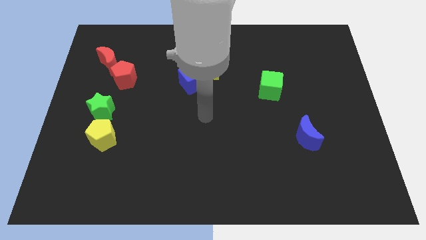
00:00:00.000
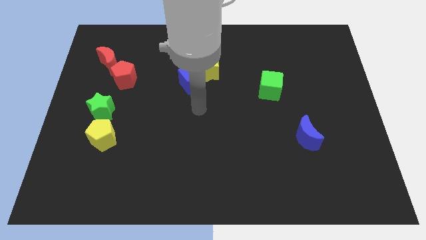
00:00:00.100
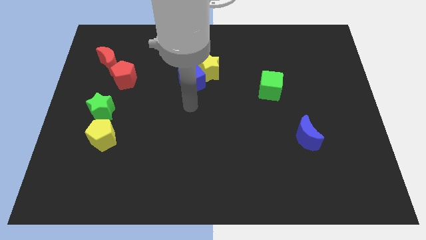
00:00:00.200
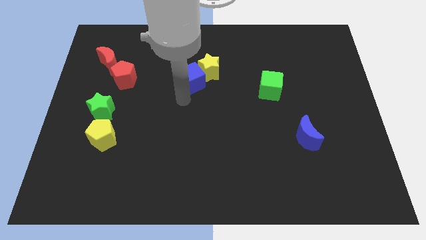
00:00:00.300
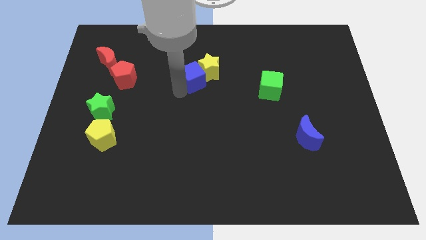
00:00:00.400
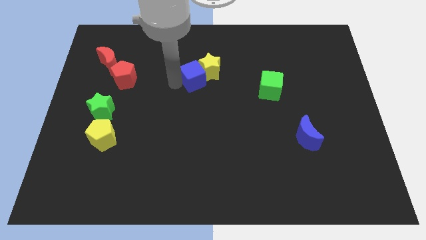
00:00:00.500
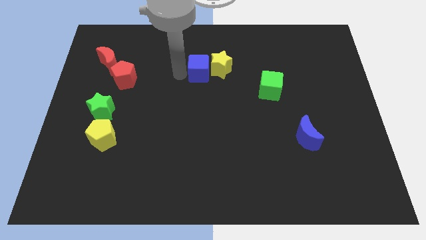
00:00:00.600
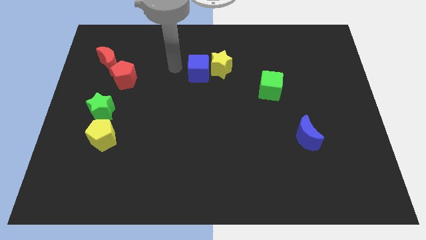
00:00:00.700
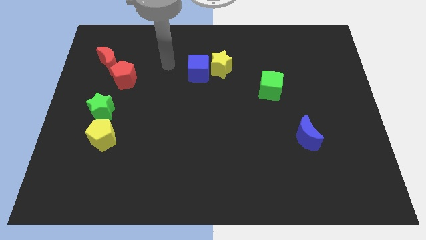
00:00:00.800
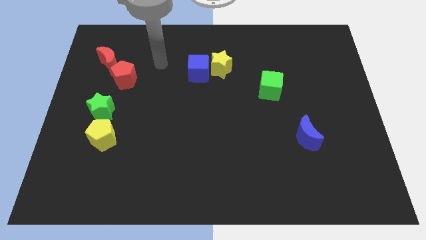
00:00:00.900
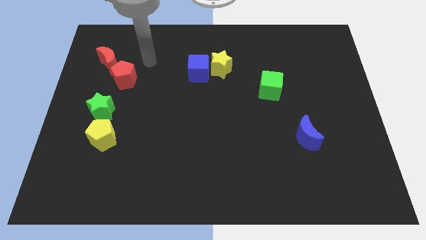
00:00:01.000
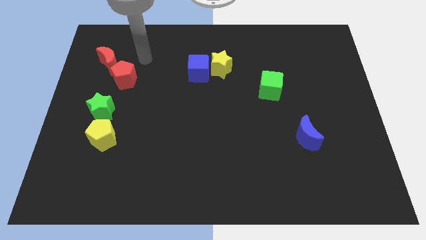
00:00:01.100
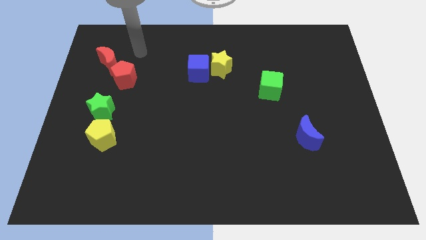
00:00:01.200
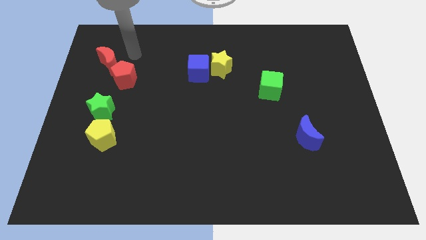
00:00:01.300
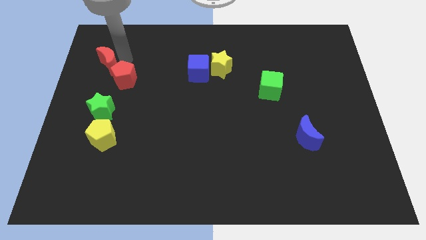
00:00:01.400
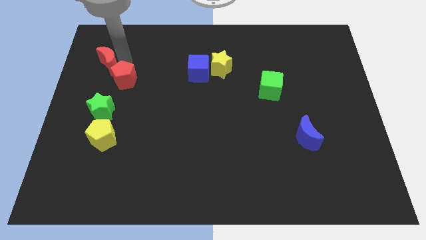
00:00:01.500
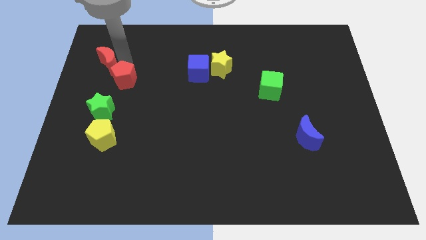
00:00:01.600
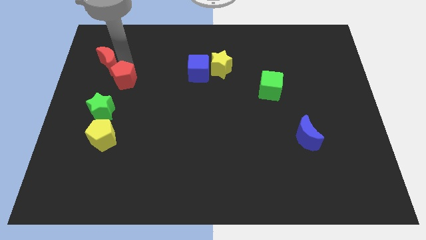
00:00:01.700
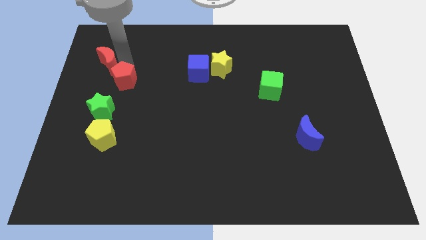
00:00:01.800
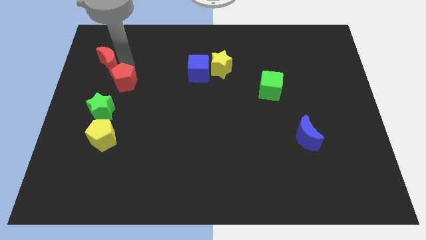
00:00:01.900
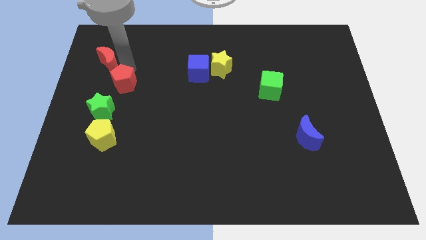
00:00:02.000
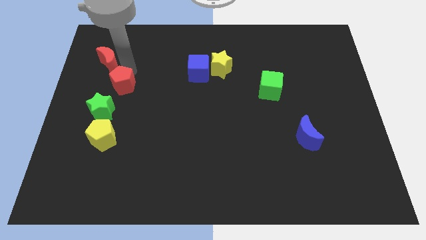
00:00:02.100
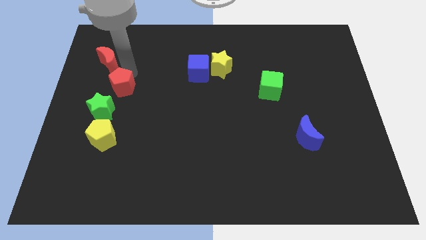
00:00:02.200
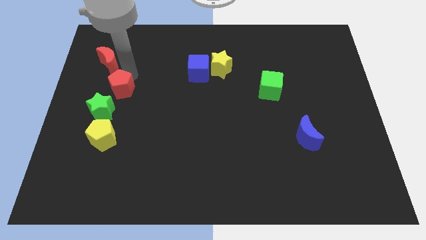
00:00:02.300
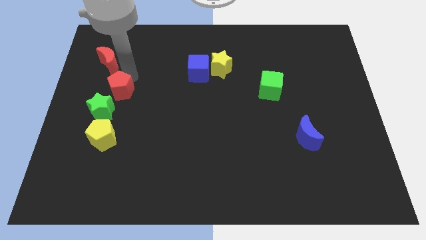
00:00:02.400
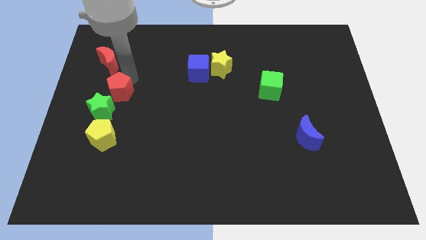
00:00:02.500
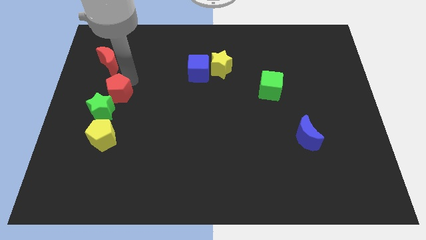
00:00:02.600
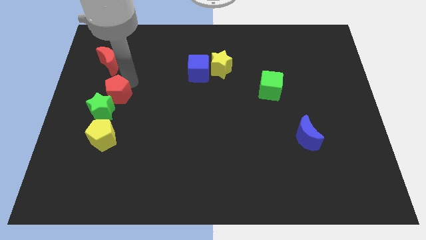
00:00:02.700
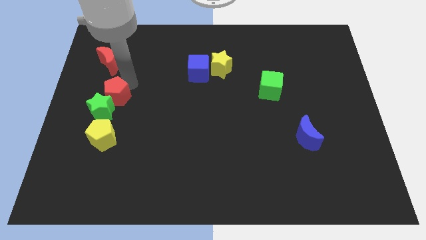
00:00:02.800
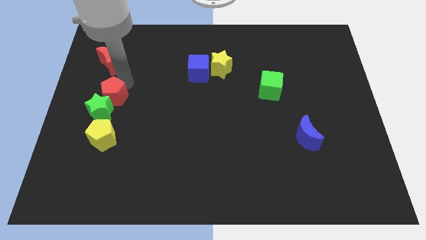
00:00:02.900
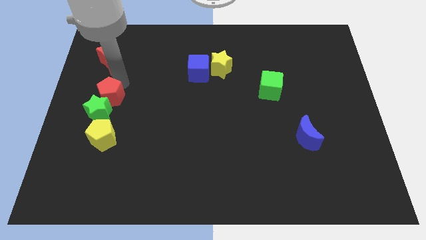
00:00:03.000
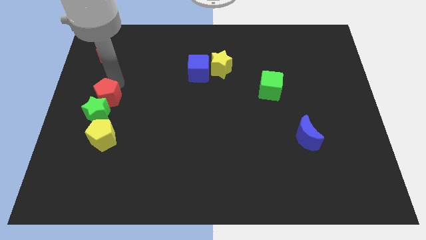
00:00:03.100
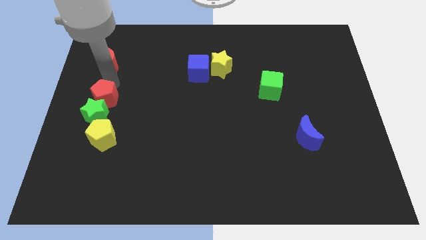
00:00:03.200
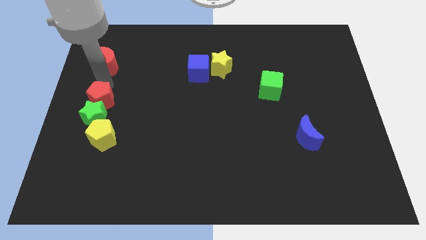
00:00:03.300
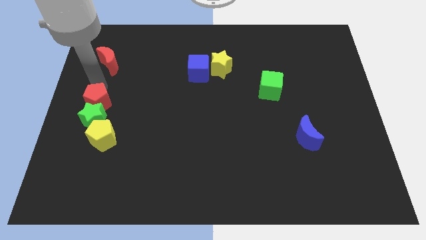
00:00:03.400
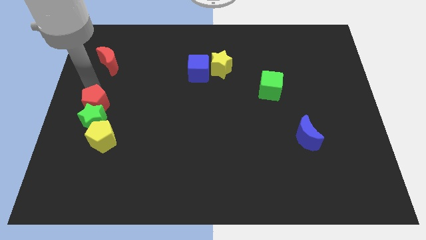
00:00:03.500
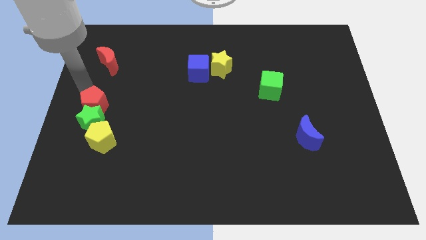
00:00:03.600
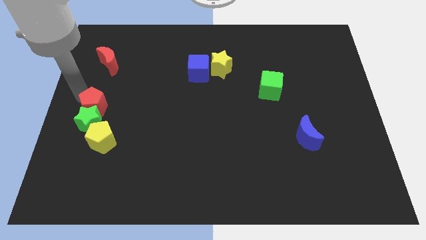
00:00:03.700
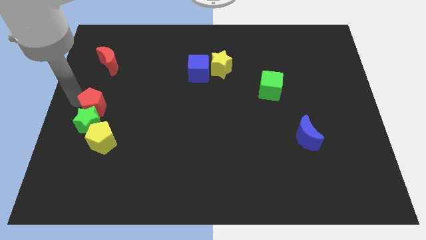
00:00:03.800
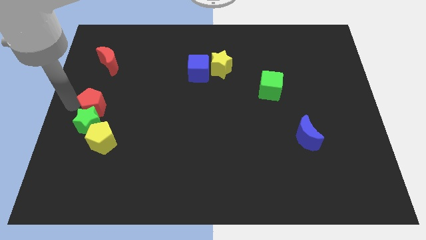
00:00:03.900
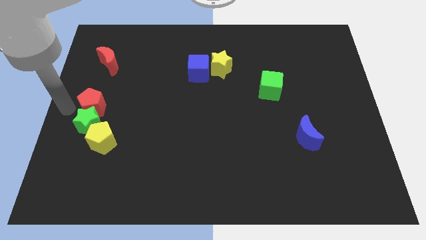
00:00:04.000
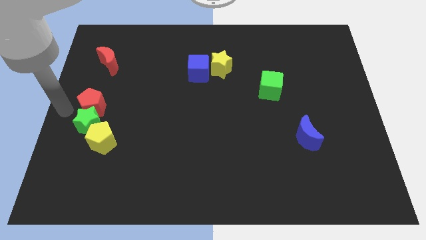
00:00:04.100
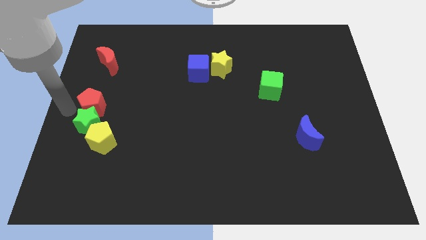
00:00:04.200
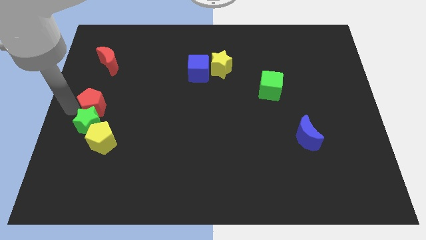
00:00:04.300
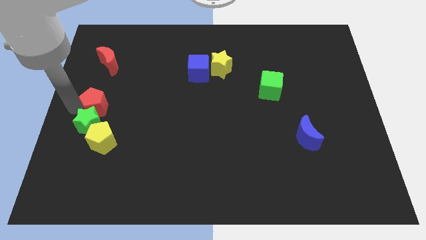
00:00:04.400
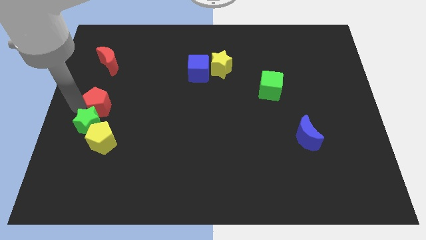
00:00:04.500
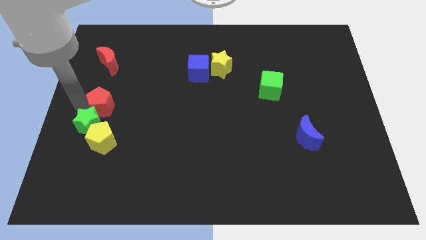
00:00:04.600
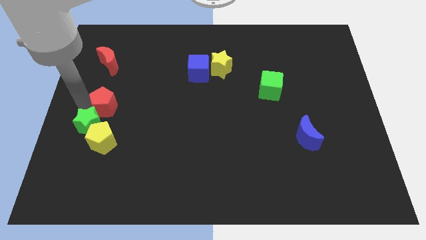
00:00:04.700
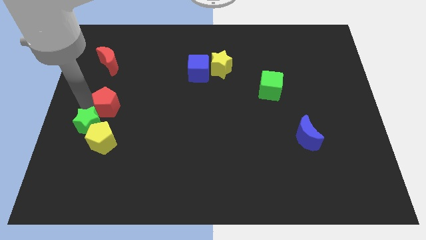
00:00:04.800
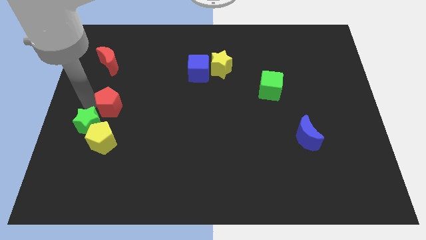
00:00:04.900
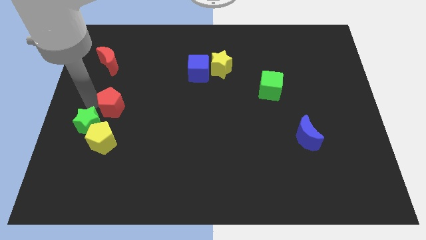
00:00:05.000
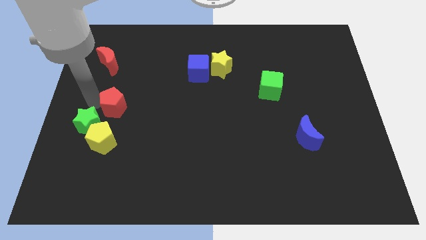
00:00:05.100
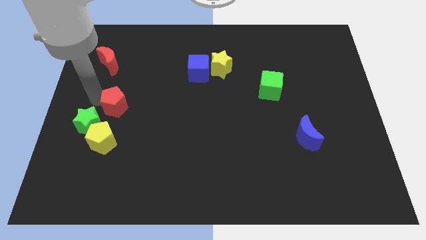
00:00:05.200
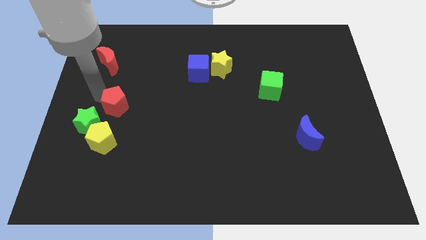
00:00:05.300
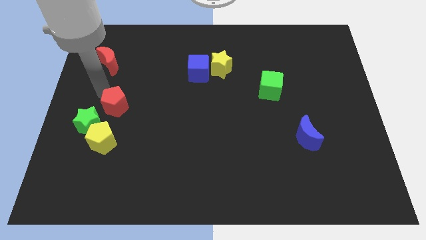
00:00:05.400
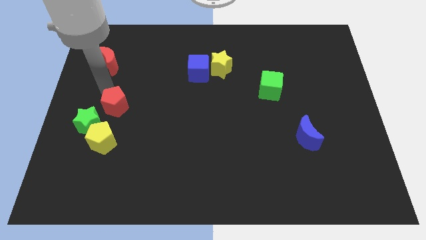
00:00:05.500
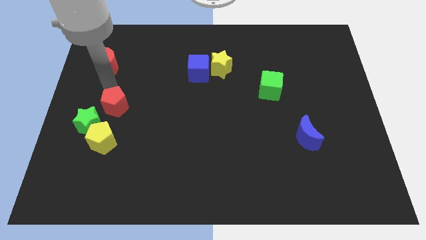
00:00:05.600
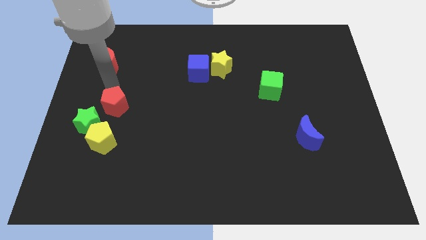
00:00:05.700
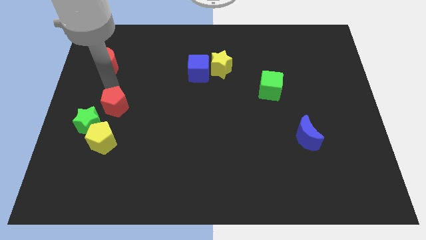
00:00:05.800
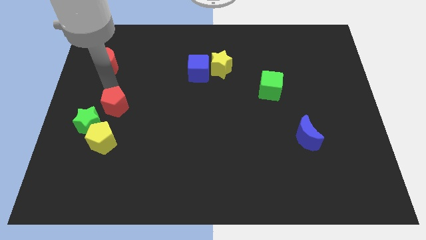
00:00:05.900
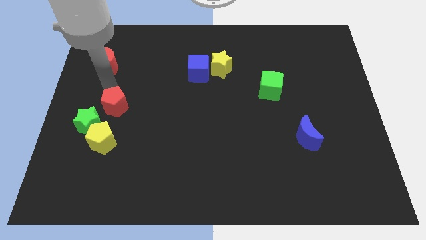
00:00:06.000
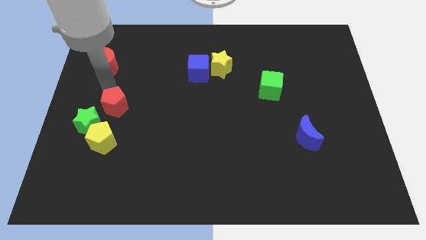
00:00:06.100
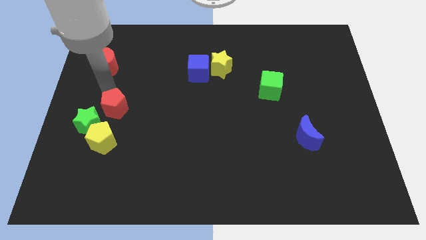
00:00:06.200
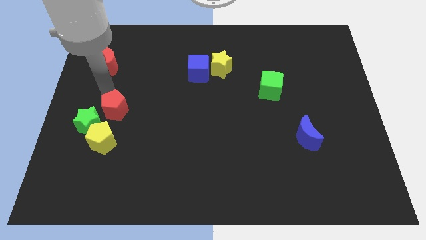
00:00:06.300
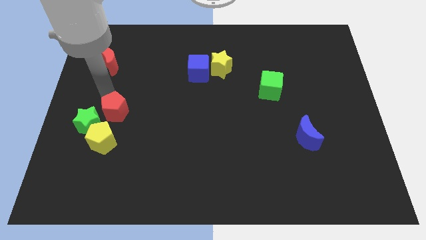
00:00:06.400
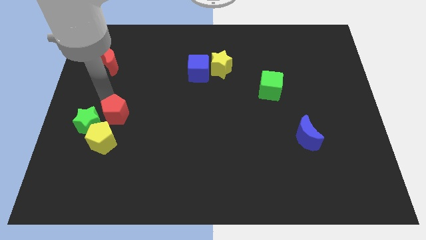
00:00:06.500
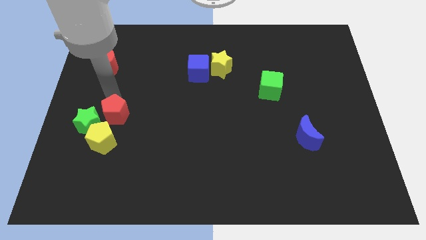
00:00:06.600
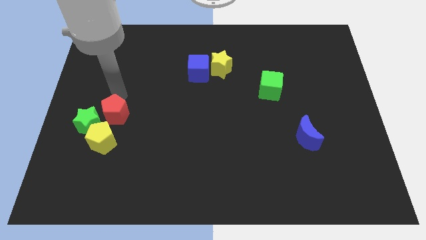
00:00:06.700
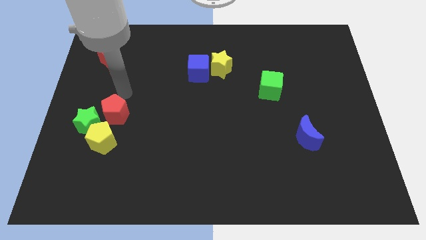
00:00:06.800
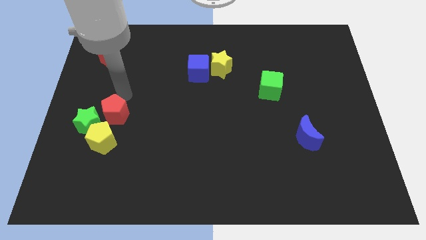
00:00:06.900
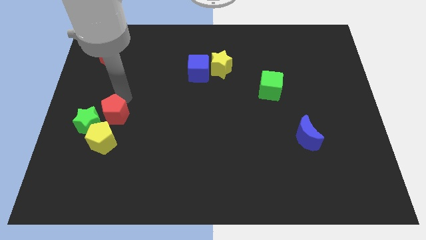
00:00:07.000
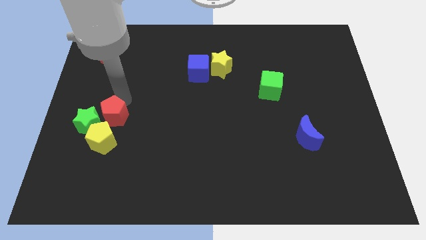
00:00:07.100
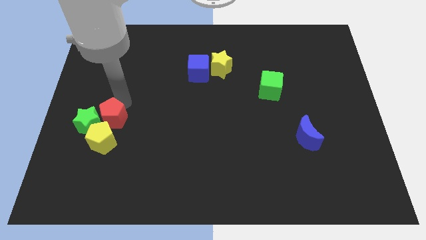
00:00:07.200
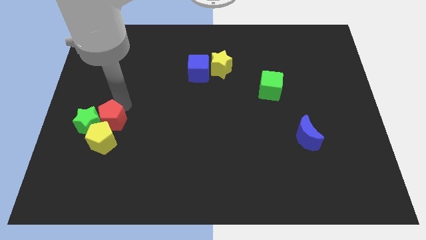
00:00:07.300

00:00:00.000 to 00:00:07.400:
slide the red pentagon next to the yellow pentagon

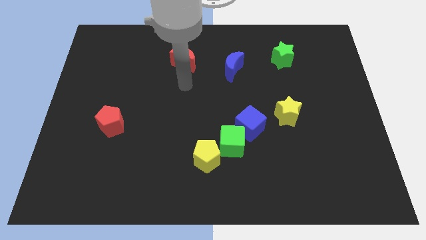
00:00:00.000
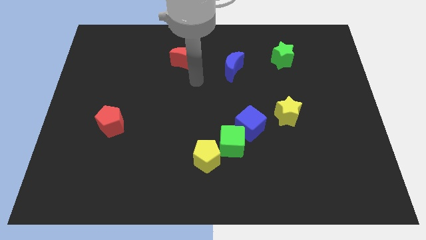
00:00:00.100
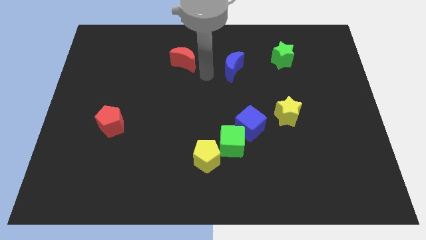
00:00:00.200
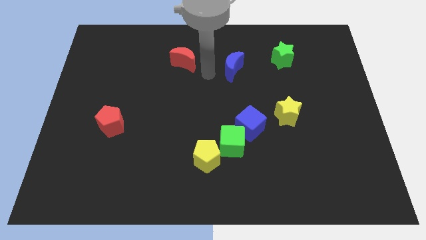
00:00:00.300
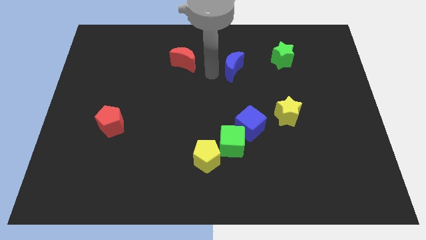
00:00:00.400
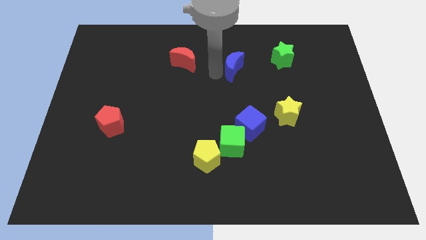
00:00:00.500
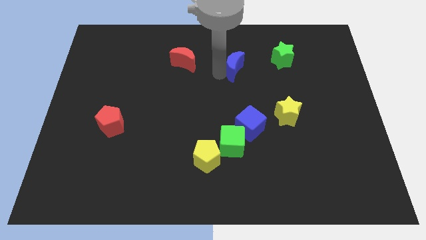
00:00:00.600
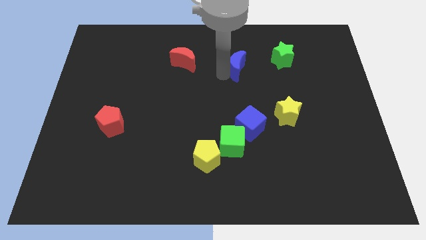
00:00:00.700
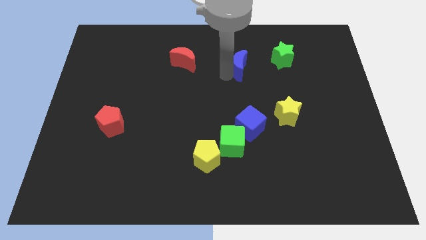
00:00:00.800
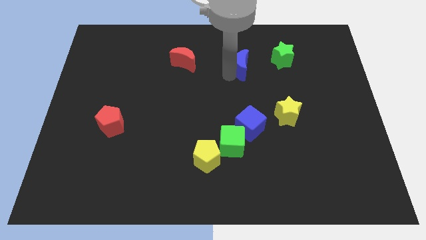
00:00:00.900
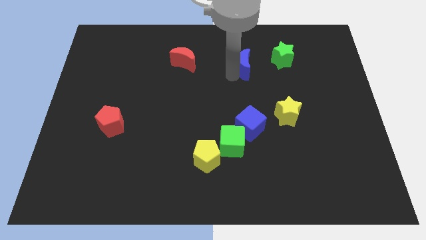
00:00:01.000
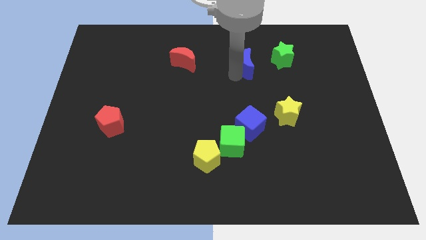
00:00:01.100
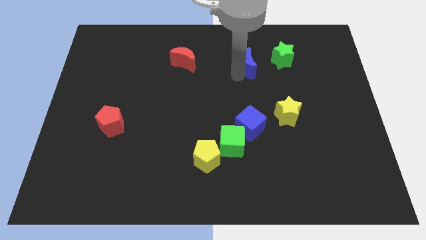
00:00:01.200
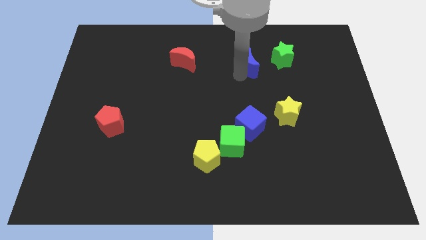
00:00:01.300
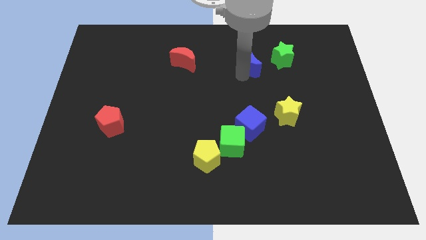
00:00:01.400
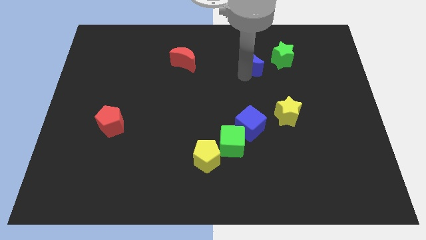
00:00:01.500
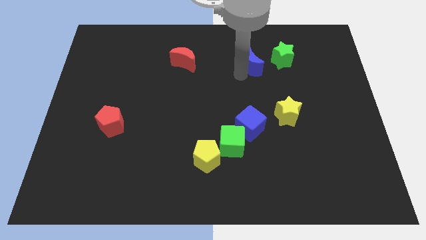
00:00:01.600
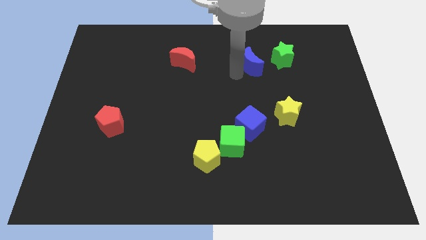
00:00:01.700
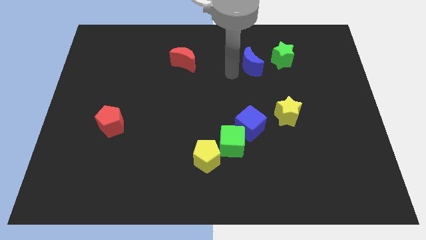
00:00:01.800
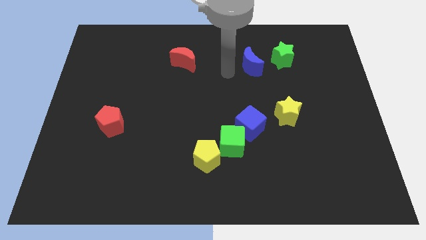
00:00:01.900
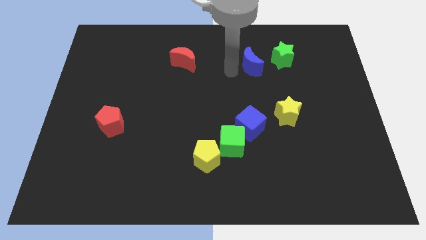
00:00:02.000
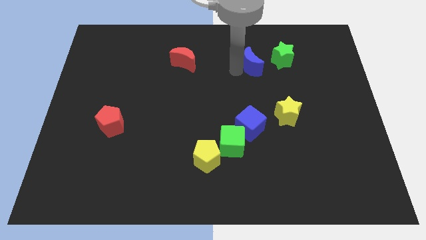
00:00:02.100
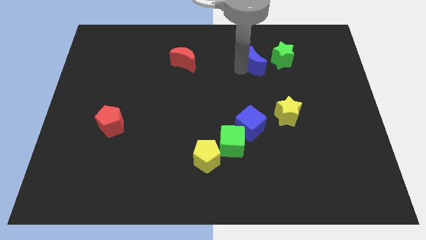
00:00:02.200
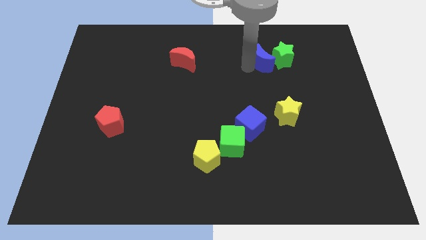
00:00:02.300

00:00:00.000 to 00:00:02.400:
push the blue moon towards the green star
